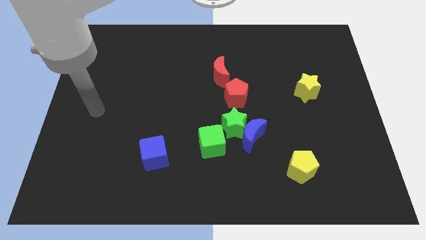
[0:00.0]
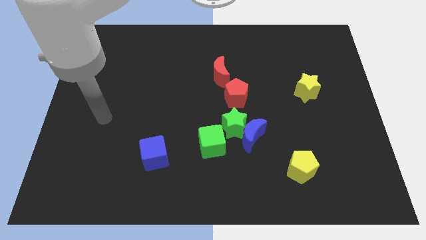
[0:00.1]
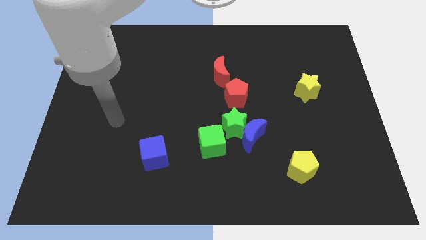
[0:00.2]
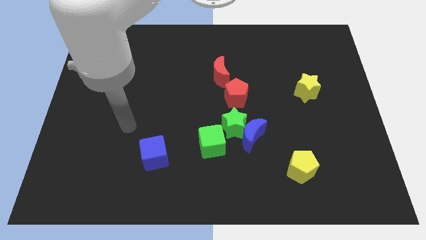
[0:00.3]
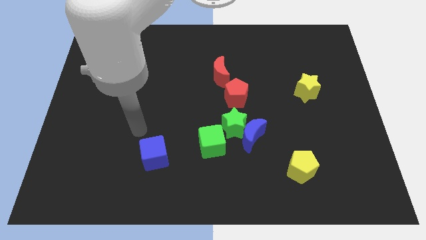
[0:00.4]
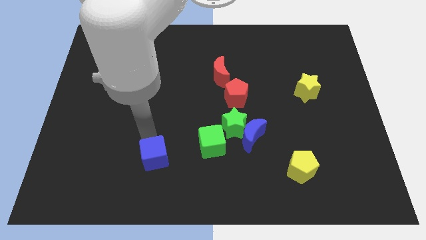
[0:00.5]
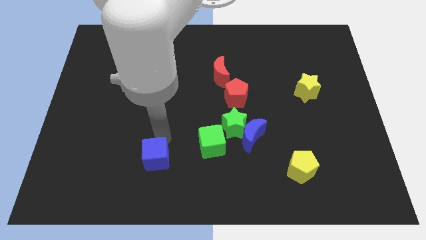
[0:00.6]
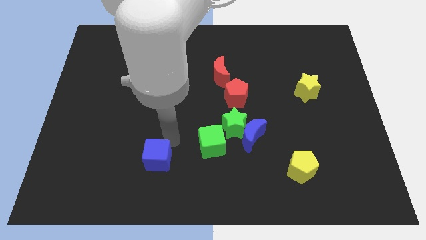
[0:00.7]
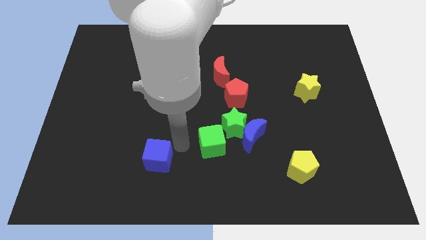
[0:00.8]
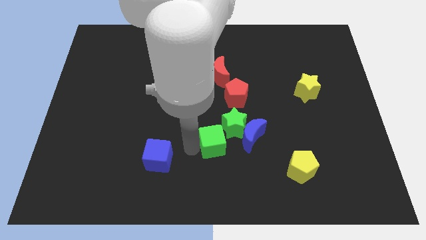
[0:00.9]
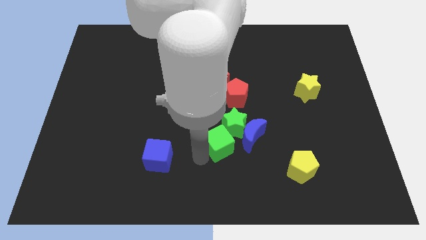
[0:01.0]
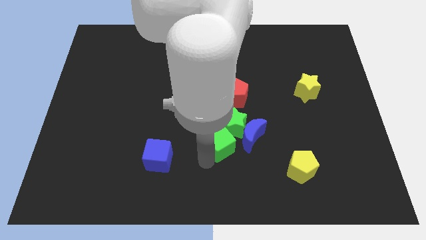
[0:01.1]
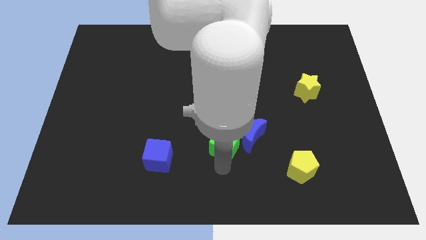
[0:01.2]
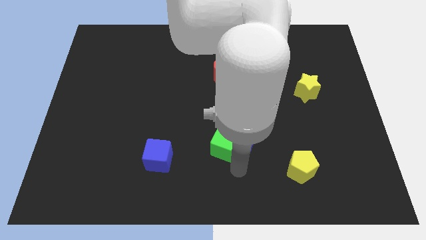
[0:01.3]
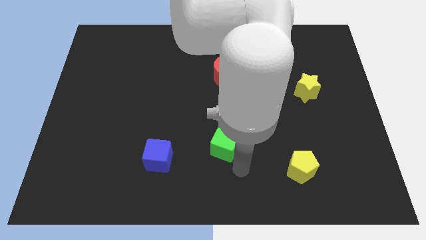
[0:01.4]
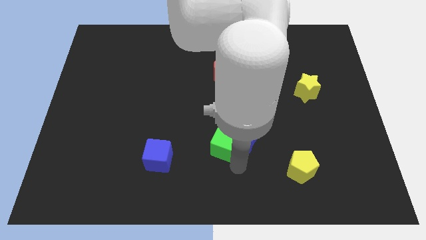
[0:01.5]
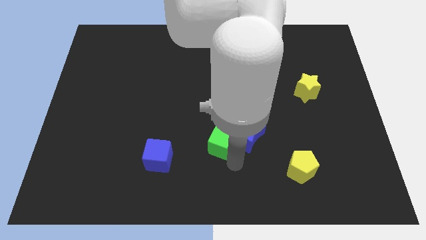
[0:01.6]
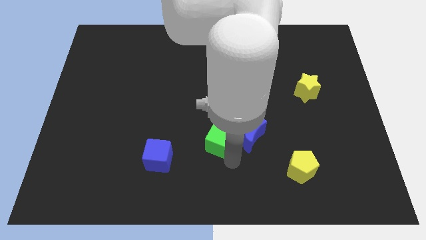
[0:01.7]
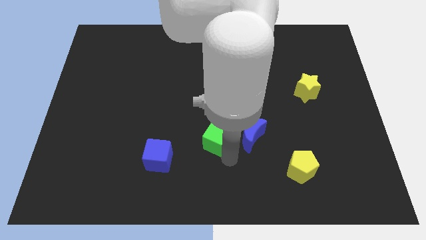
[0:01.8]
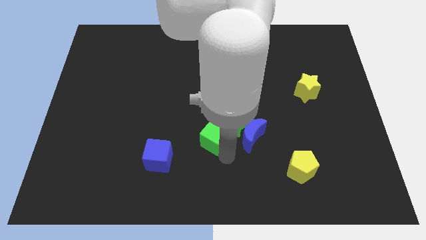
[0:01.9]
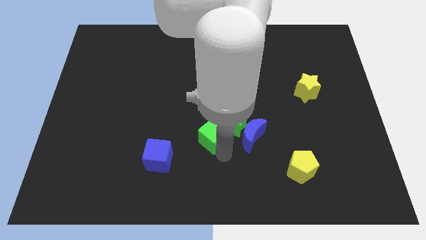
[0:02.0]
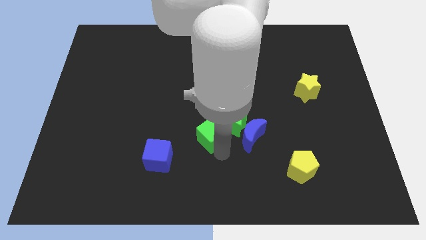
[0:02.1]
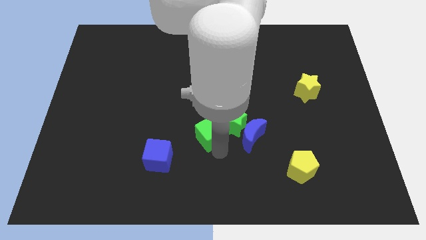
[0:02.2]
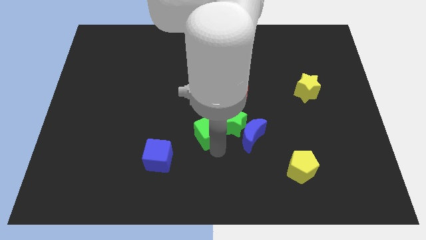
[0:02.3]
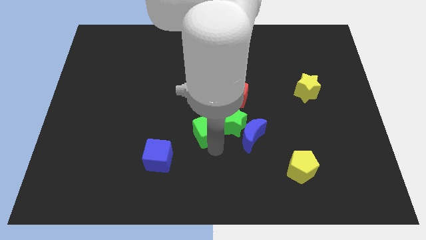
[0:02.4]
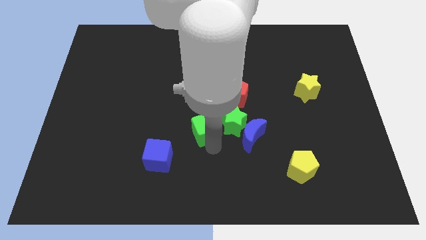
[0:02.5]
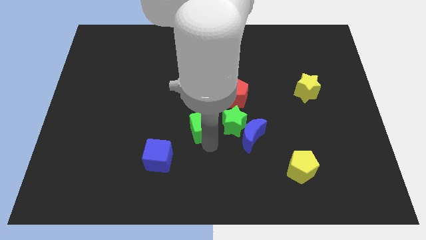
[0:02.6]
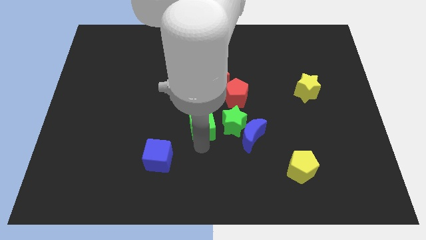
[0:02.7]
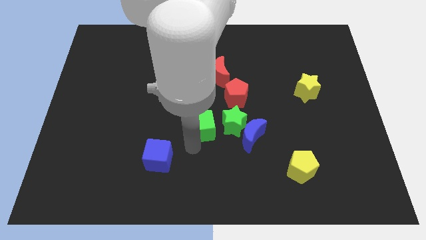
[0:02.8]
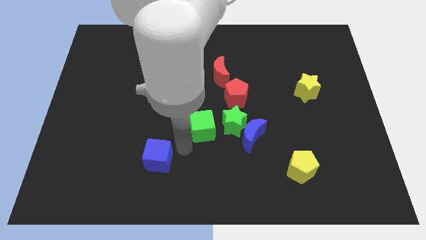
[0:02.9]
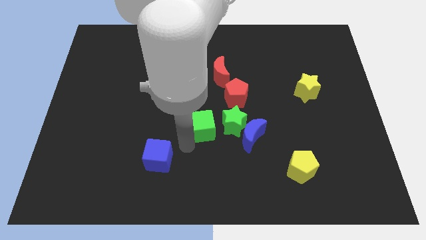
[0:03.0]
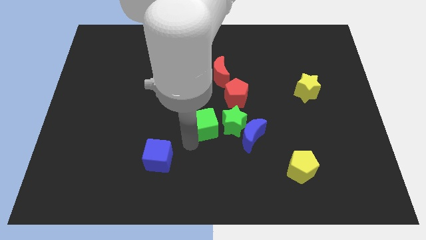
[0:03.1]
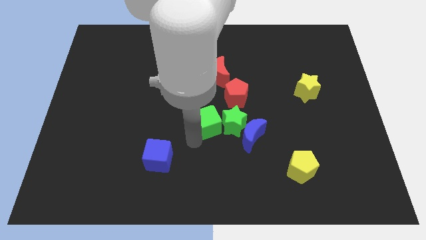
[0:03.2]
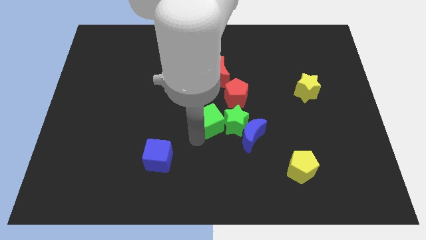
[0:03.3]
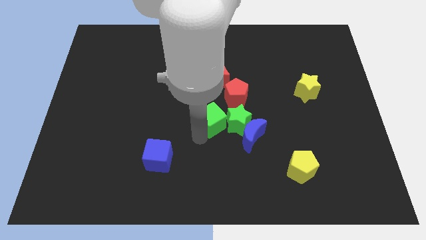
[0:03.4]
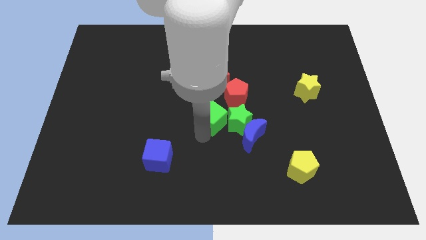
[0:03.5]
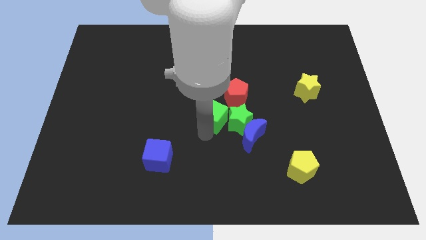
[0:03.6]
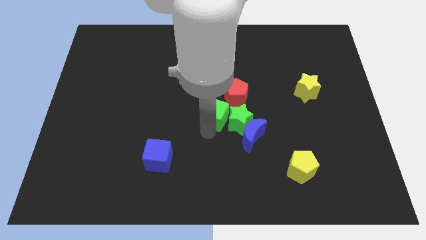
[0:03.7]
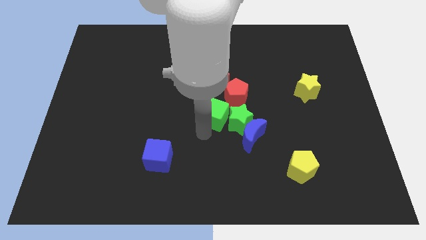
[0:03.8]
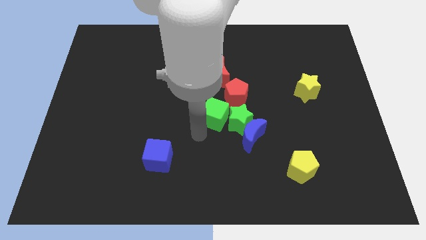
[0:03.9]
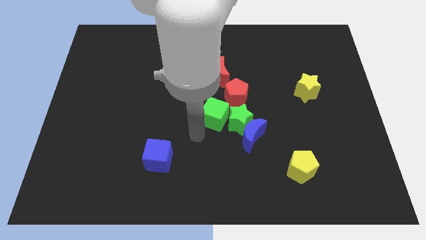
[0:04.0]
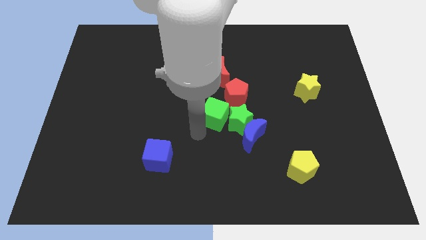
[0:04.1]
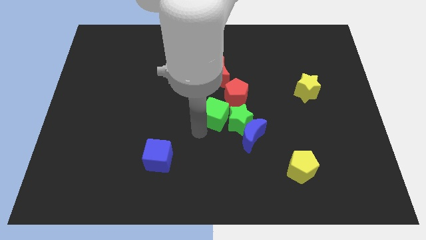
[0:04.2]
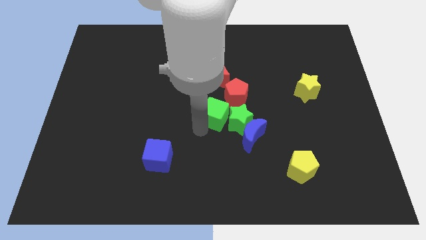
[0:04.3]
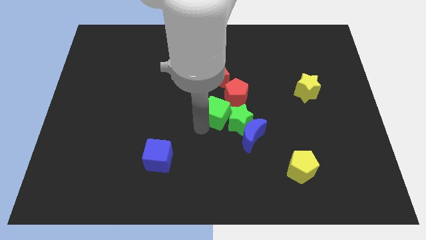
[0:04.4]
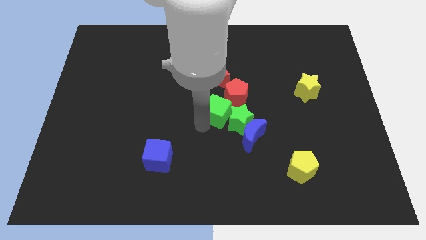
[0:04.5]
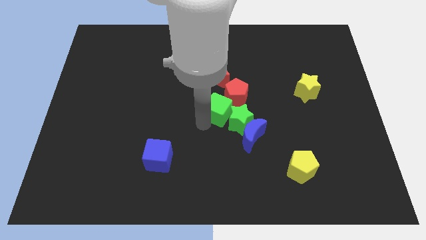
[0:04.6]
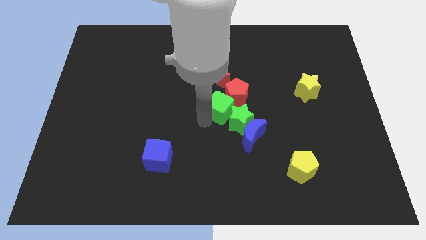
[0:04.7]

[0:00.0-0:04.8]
move the green cube towards the red pentagon

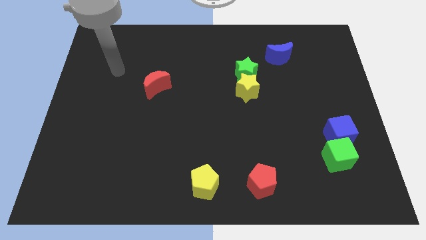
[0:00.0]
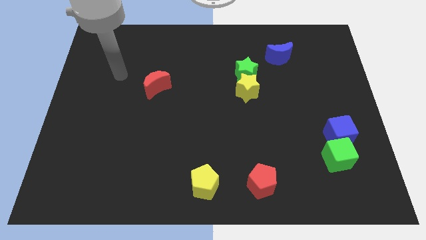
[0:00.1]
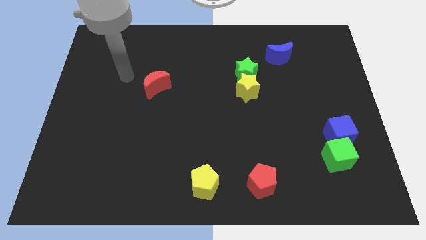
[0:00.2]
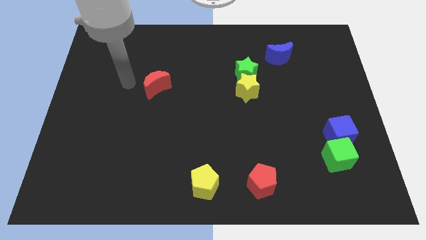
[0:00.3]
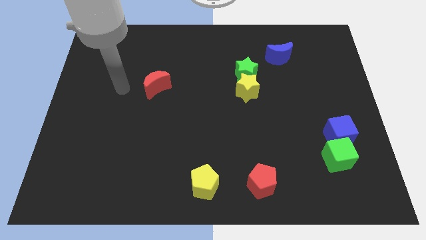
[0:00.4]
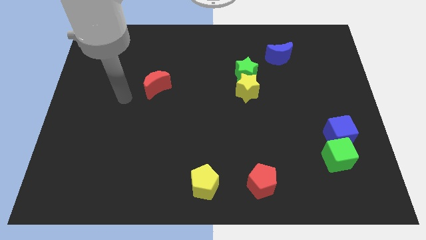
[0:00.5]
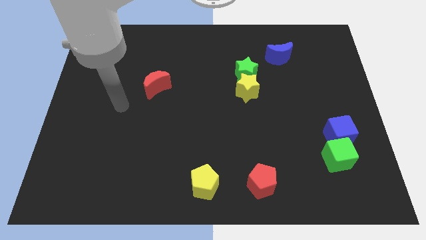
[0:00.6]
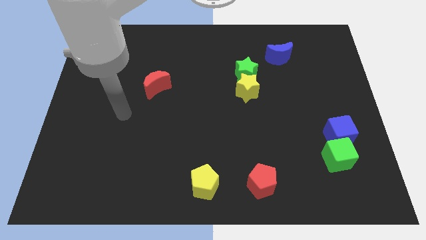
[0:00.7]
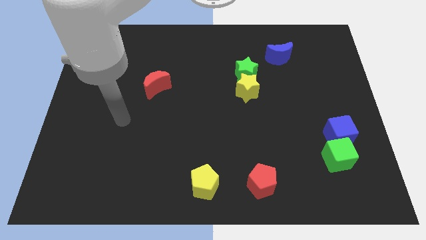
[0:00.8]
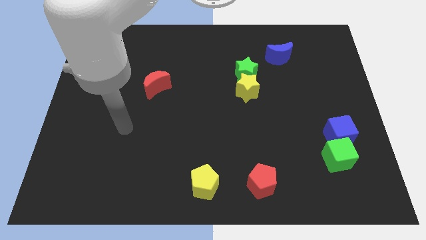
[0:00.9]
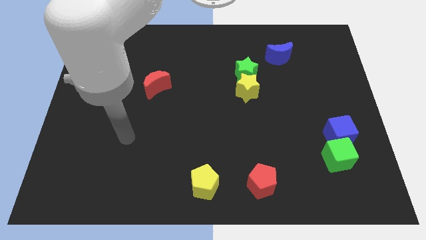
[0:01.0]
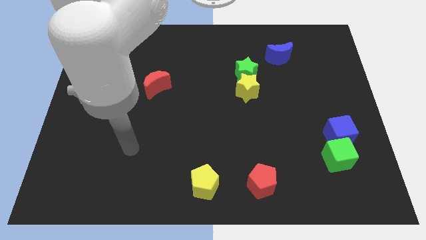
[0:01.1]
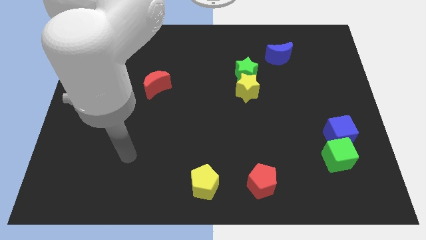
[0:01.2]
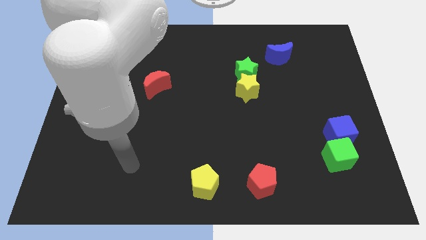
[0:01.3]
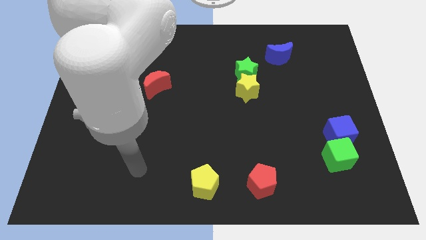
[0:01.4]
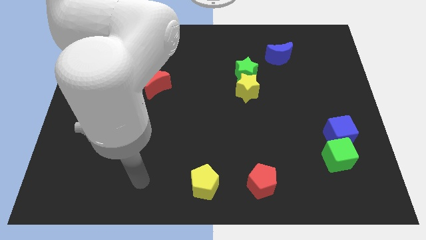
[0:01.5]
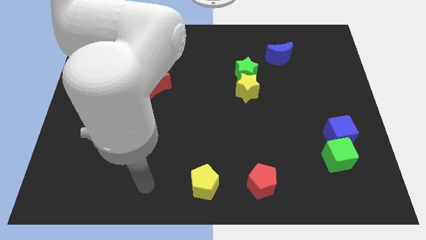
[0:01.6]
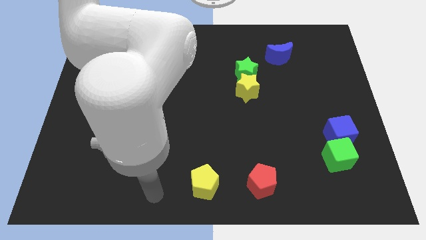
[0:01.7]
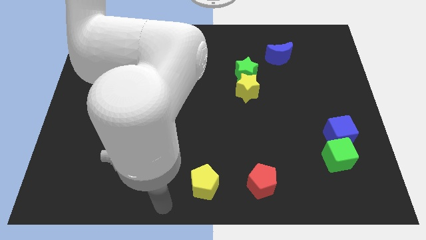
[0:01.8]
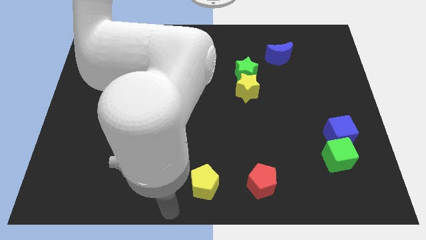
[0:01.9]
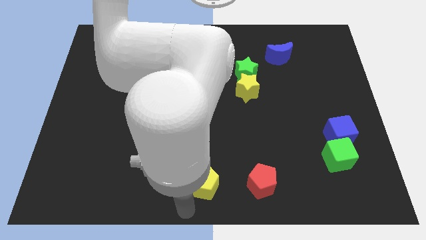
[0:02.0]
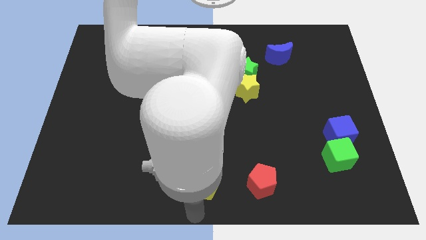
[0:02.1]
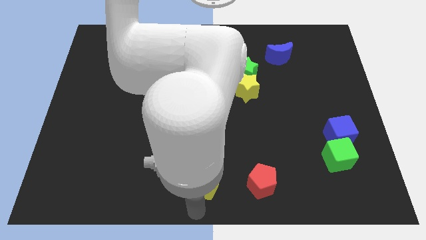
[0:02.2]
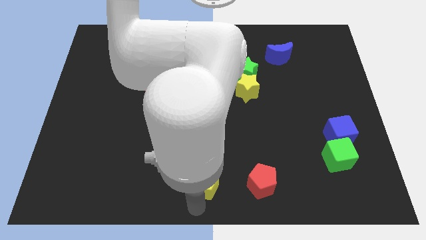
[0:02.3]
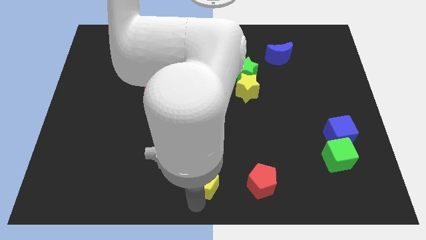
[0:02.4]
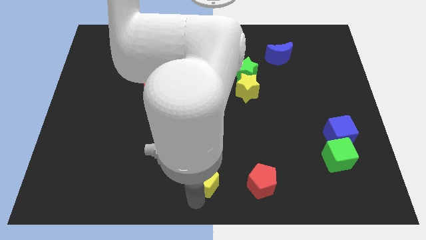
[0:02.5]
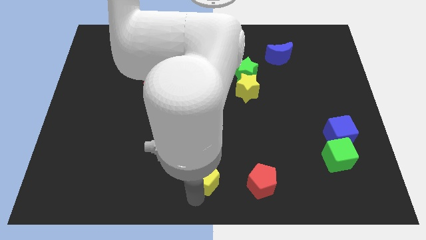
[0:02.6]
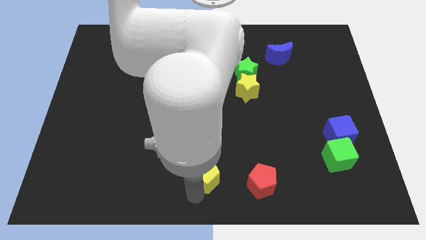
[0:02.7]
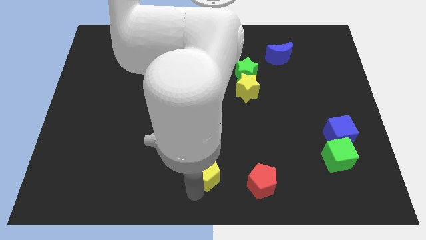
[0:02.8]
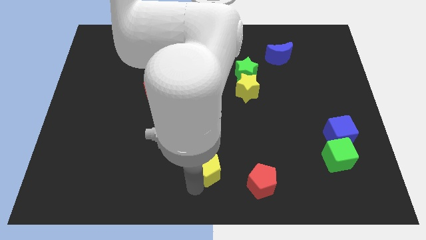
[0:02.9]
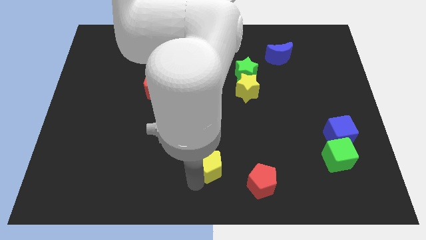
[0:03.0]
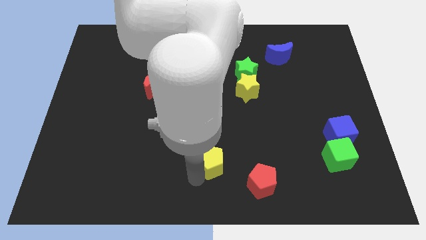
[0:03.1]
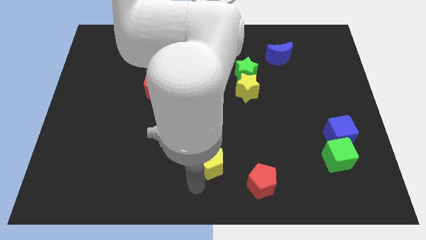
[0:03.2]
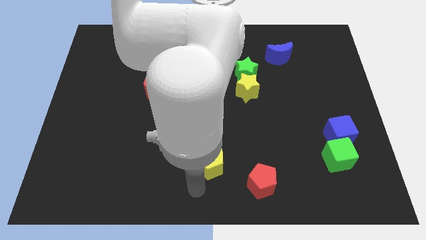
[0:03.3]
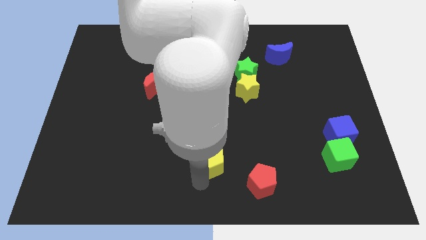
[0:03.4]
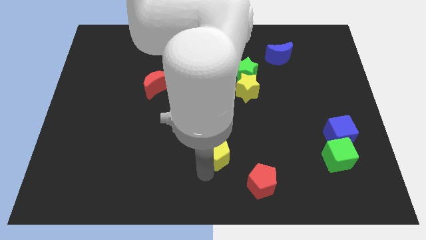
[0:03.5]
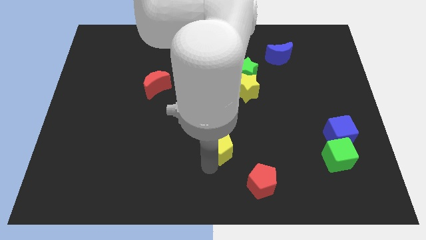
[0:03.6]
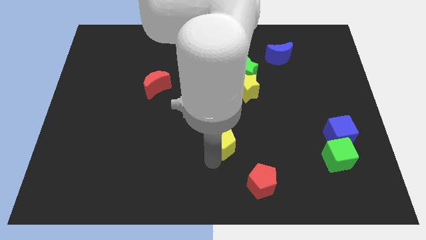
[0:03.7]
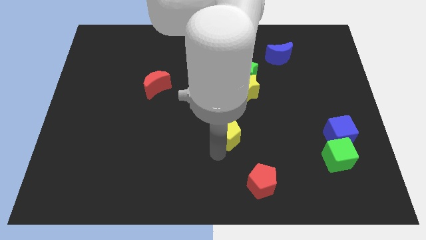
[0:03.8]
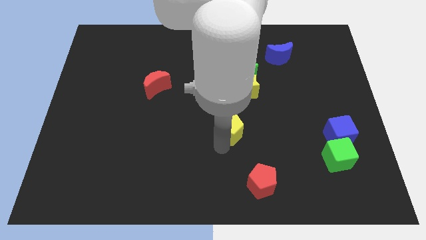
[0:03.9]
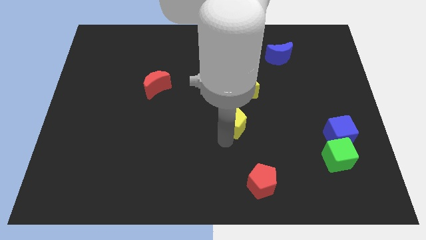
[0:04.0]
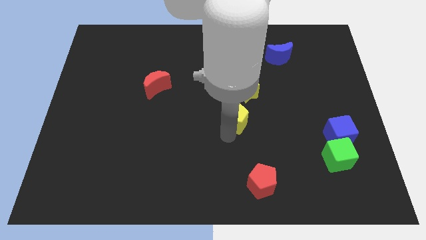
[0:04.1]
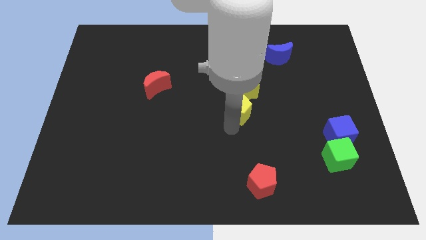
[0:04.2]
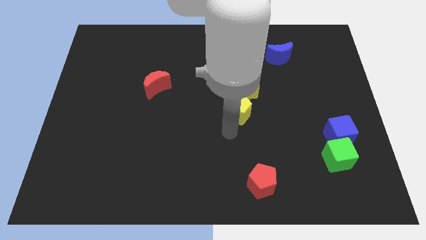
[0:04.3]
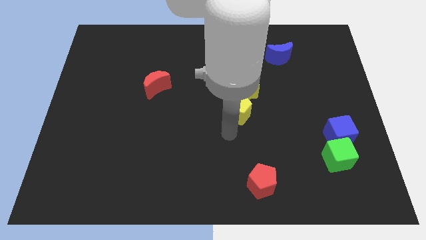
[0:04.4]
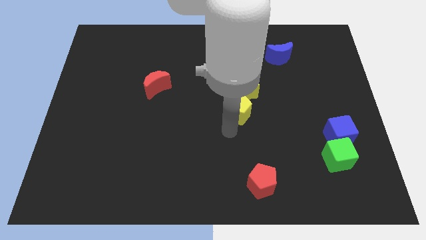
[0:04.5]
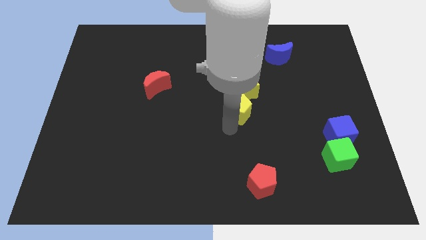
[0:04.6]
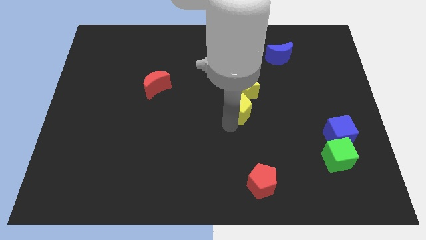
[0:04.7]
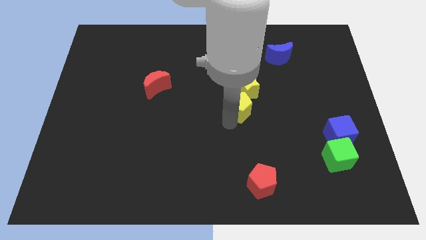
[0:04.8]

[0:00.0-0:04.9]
move the yellow pentagon close to the yellow star
